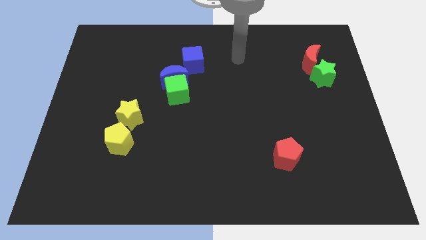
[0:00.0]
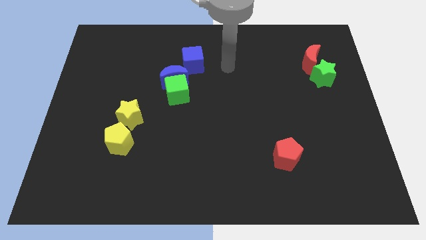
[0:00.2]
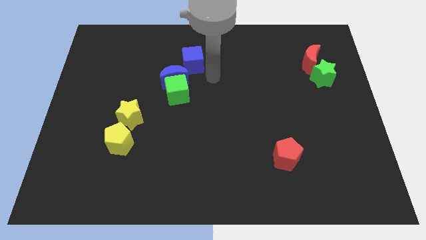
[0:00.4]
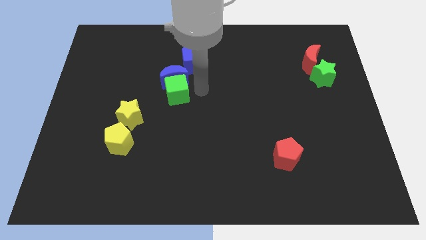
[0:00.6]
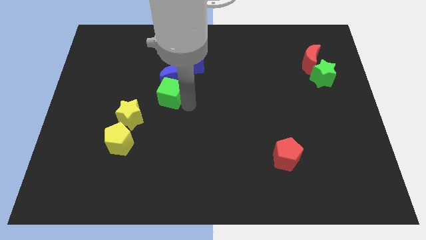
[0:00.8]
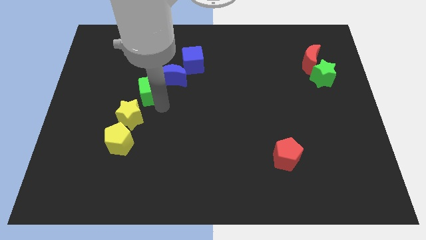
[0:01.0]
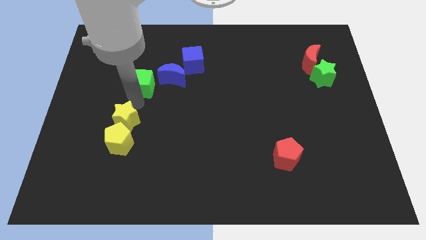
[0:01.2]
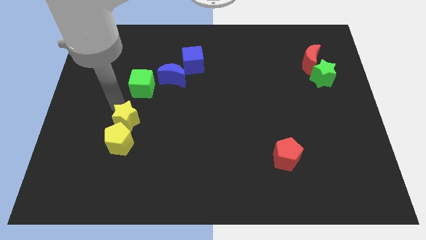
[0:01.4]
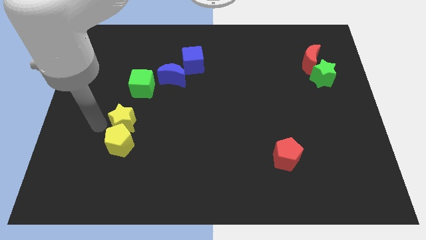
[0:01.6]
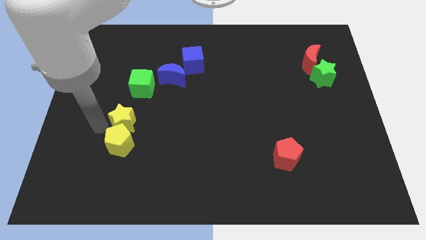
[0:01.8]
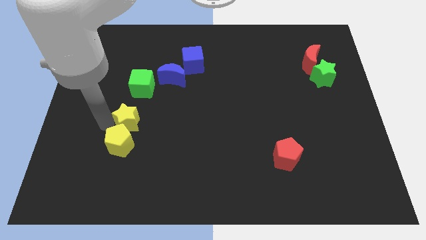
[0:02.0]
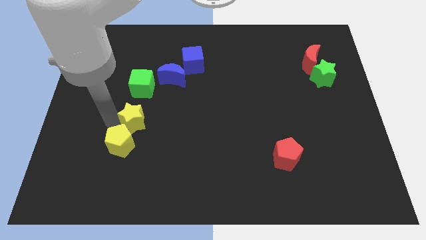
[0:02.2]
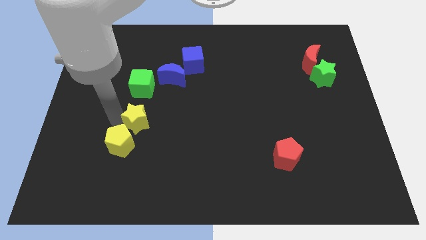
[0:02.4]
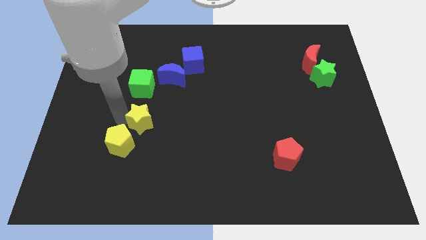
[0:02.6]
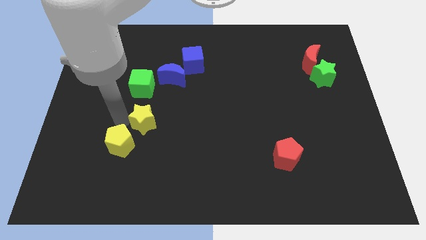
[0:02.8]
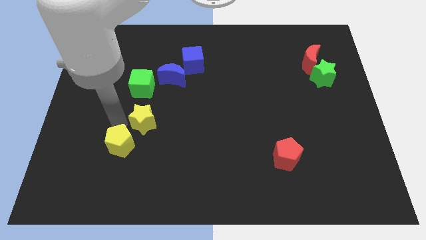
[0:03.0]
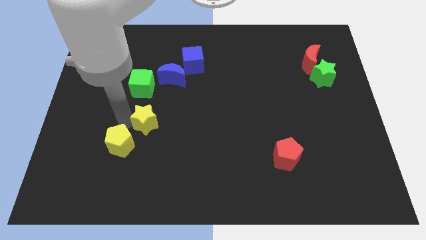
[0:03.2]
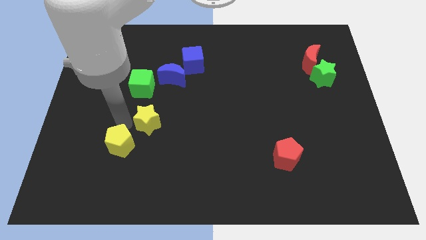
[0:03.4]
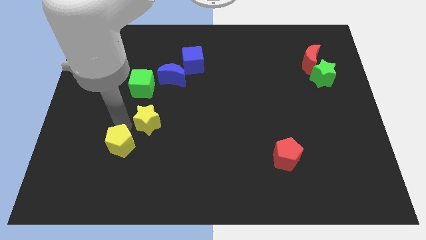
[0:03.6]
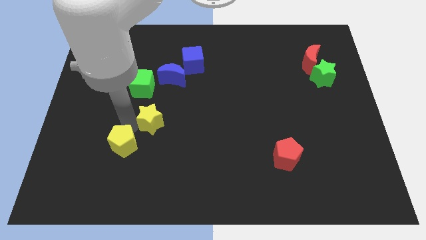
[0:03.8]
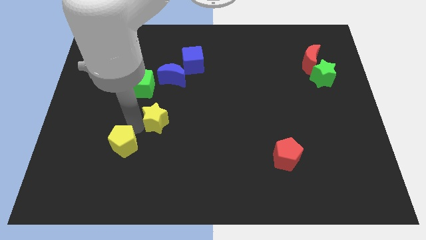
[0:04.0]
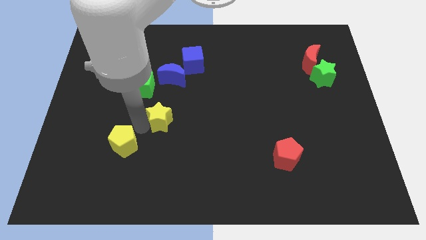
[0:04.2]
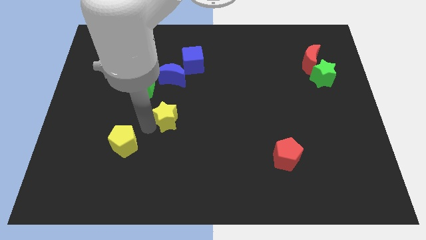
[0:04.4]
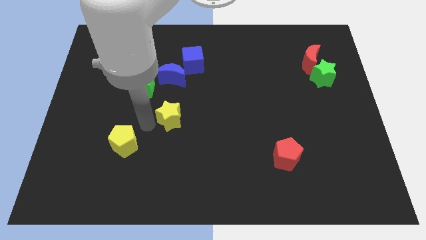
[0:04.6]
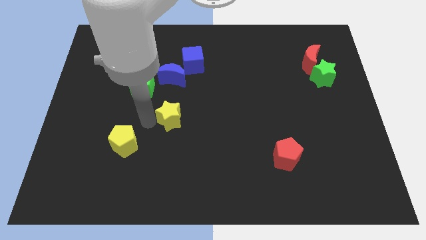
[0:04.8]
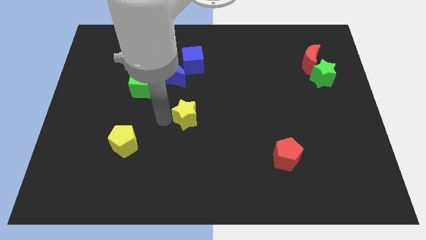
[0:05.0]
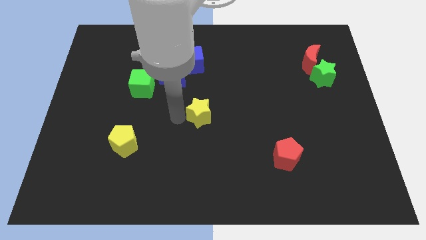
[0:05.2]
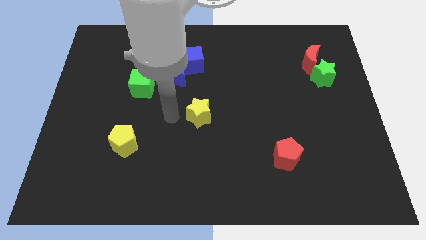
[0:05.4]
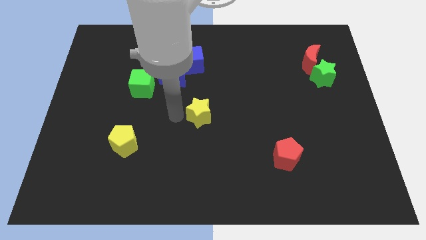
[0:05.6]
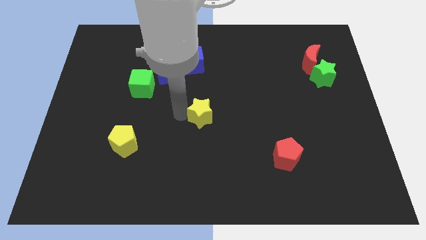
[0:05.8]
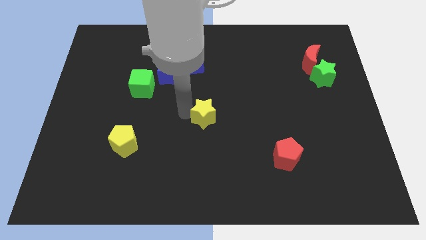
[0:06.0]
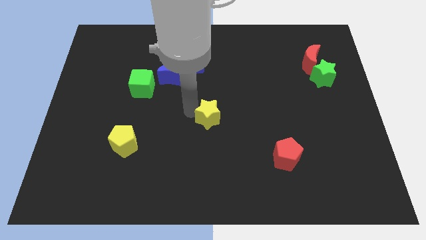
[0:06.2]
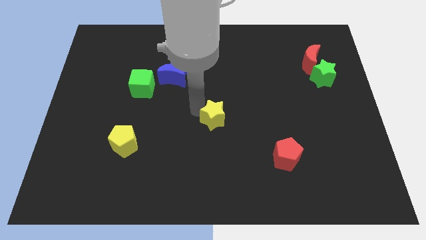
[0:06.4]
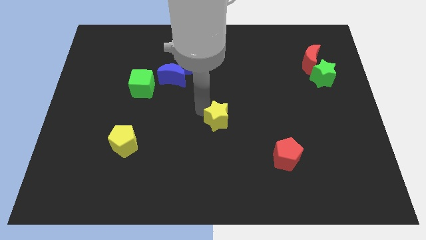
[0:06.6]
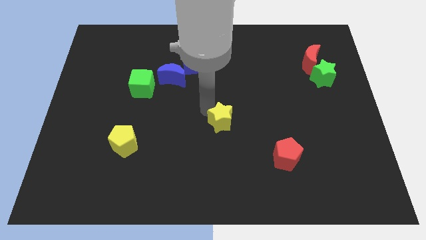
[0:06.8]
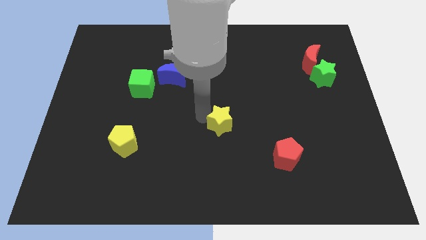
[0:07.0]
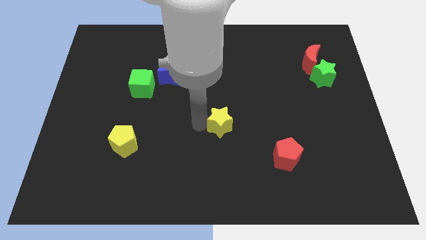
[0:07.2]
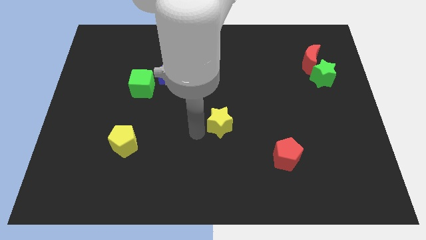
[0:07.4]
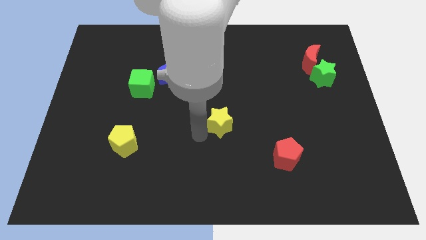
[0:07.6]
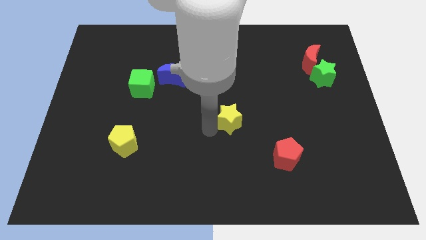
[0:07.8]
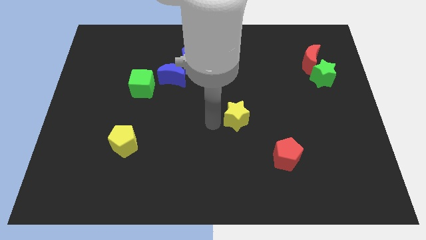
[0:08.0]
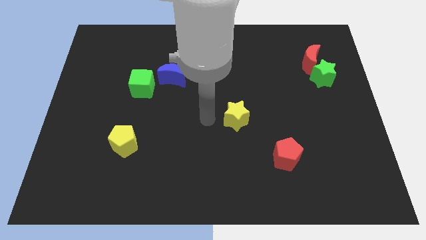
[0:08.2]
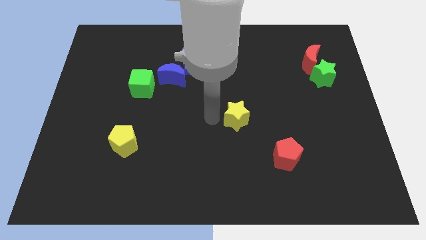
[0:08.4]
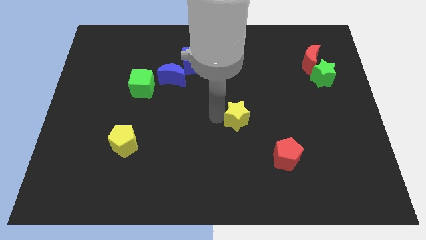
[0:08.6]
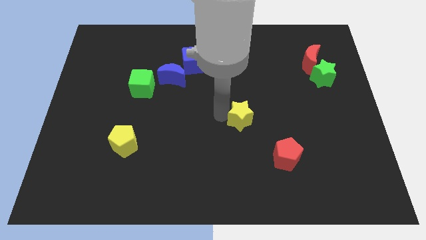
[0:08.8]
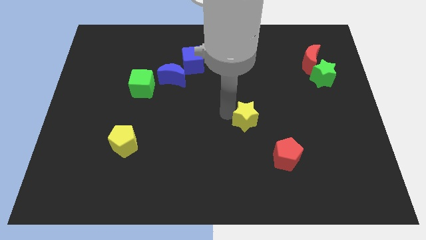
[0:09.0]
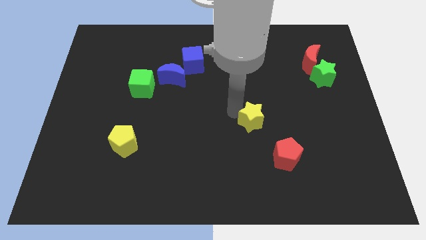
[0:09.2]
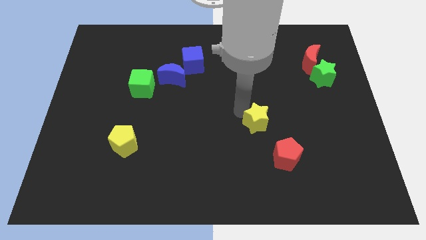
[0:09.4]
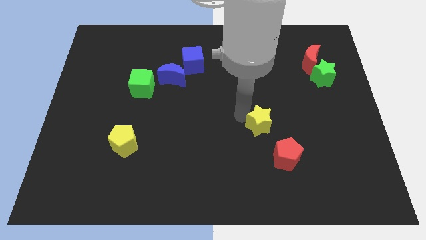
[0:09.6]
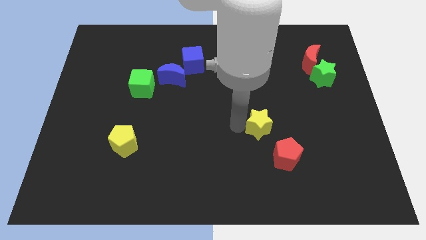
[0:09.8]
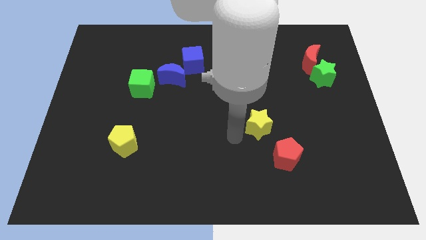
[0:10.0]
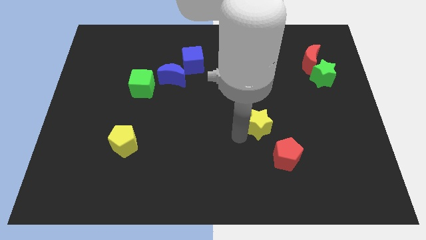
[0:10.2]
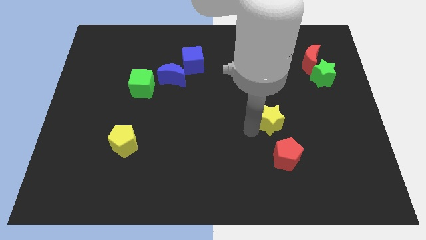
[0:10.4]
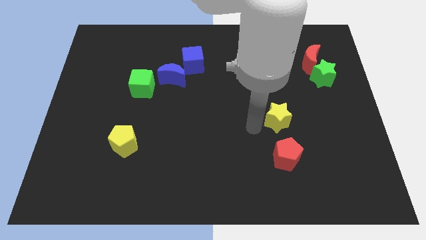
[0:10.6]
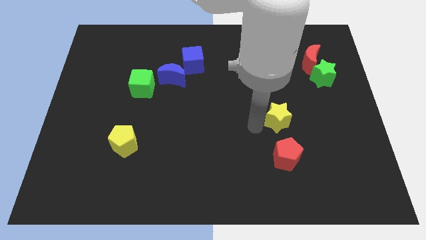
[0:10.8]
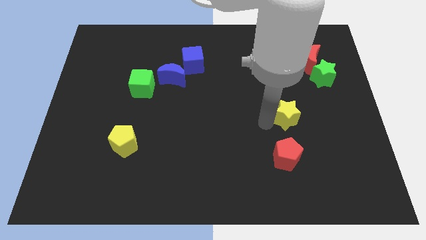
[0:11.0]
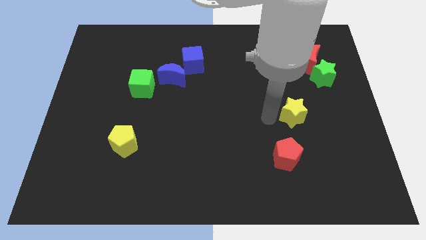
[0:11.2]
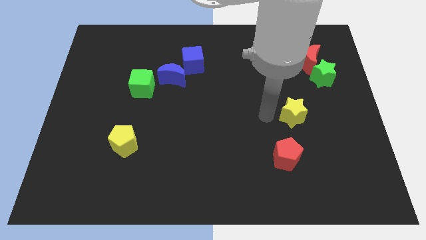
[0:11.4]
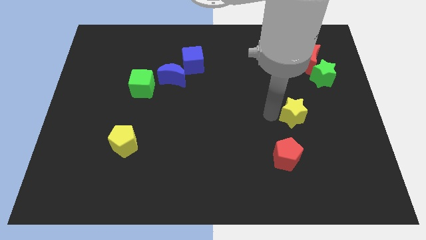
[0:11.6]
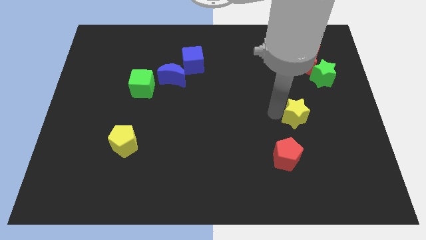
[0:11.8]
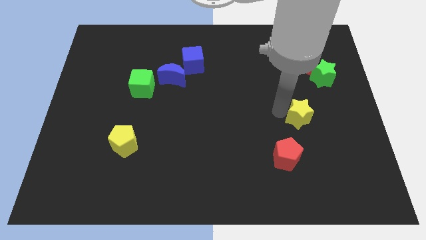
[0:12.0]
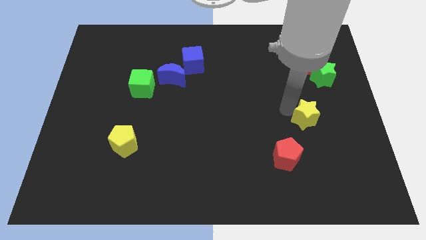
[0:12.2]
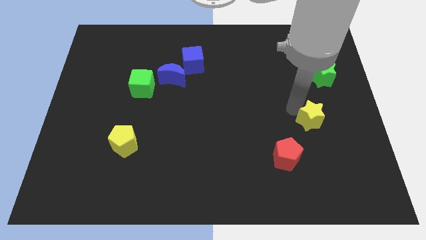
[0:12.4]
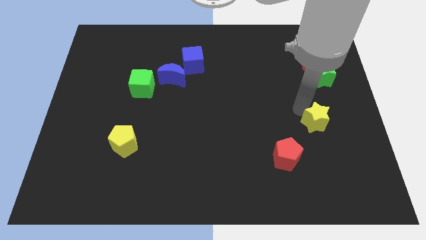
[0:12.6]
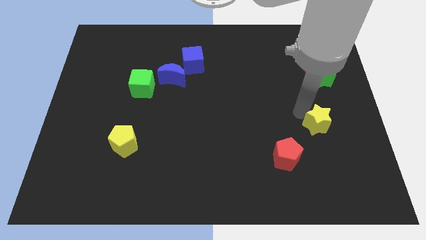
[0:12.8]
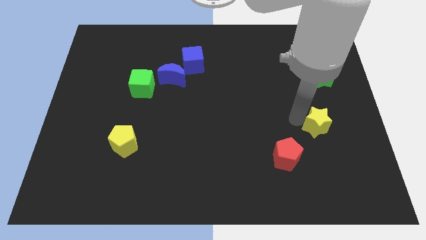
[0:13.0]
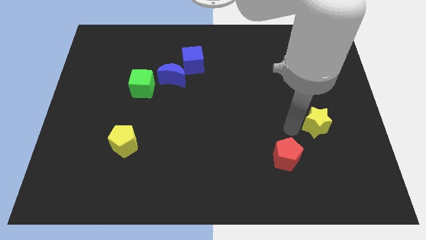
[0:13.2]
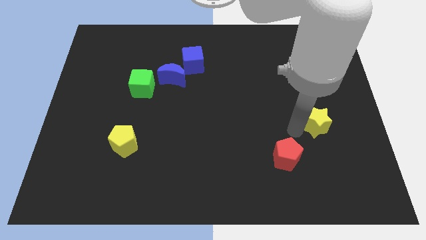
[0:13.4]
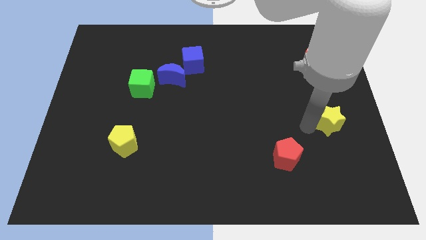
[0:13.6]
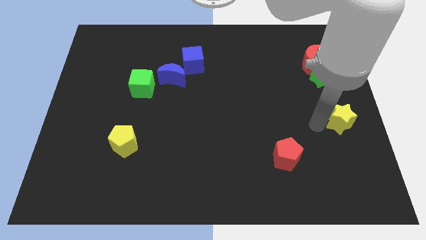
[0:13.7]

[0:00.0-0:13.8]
put the yellow star to the right side of the board
